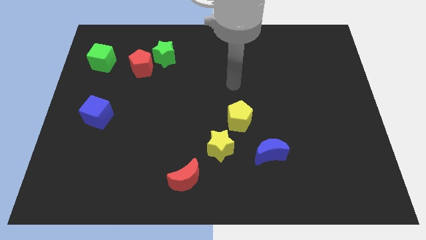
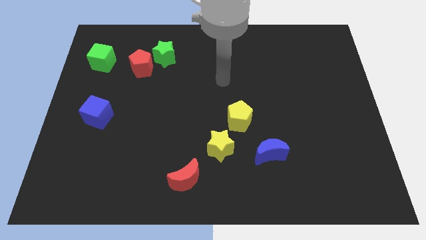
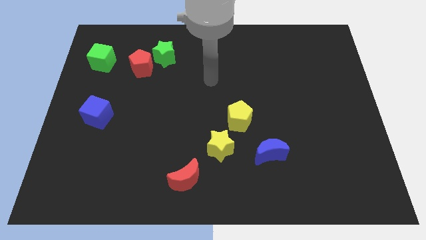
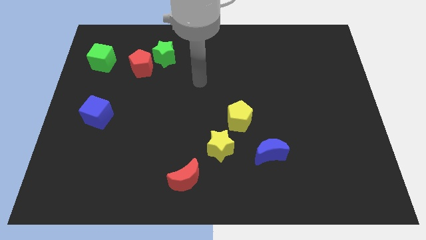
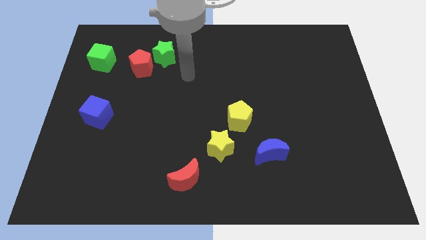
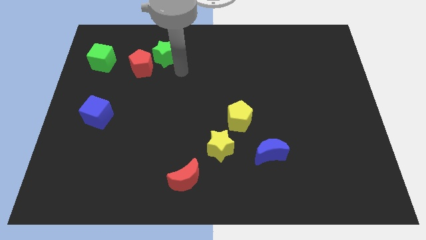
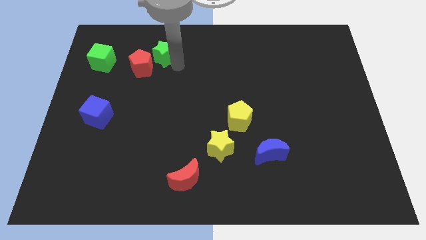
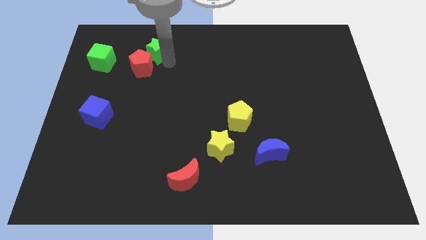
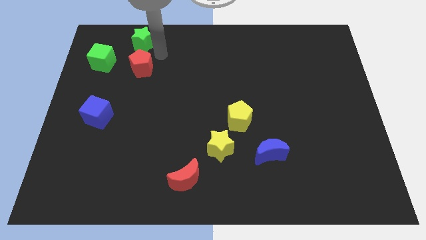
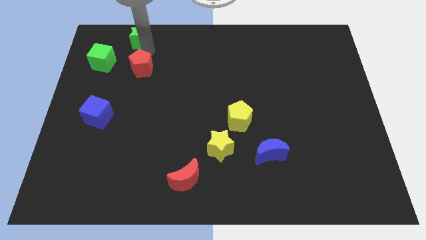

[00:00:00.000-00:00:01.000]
move the red pentagon away from the green star

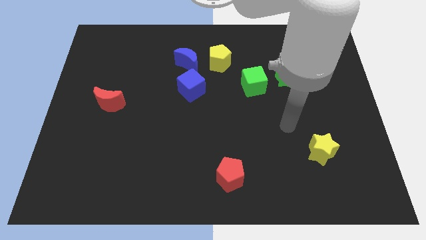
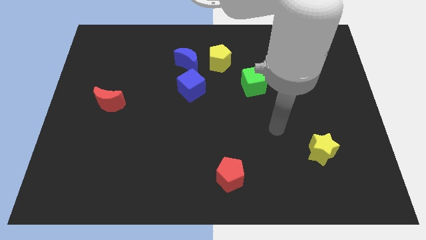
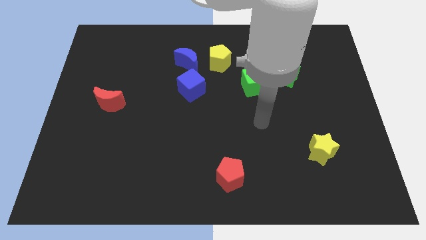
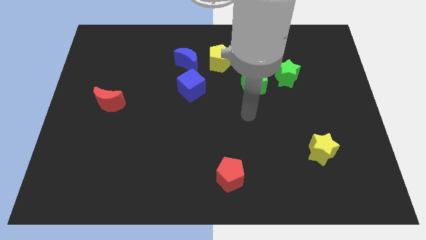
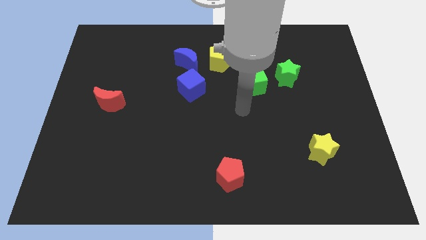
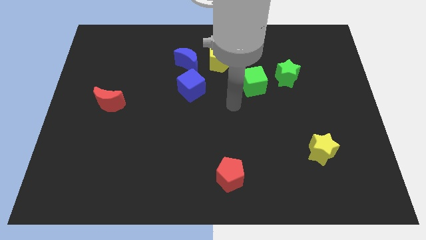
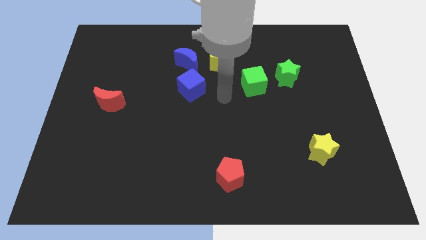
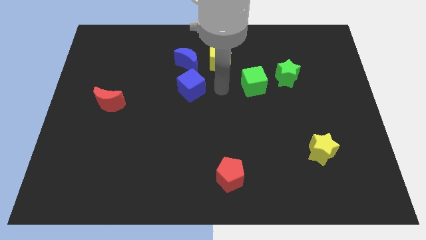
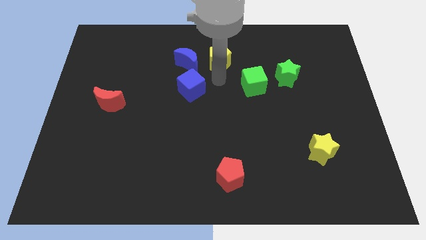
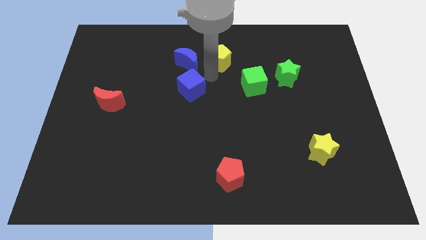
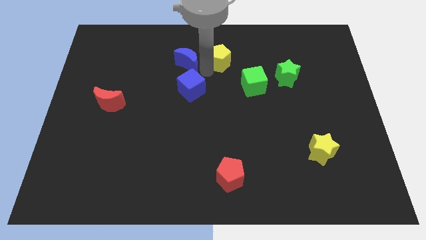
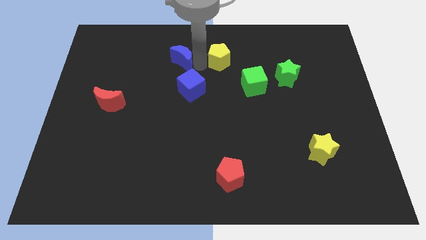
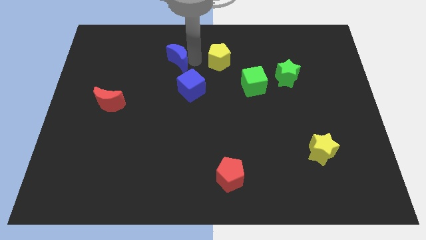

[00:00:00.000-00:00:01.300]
pull the yellow pentagon apart from the blue moon

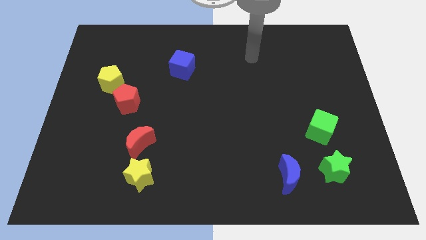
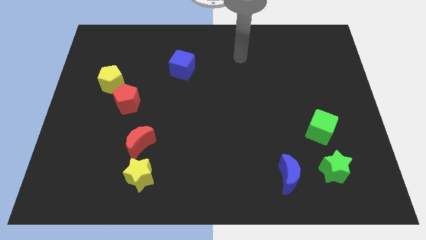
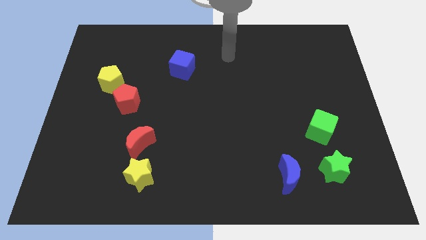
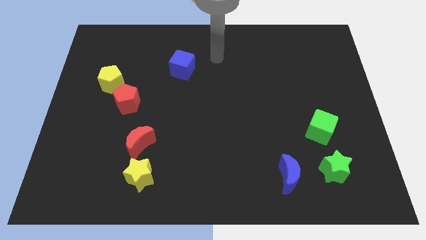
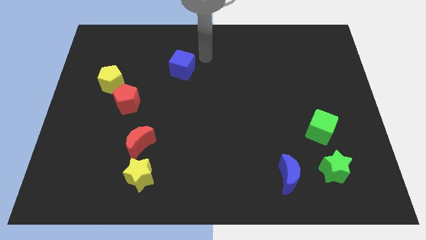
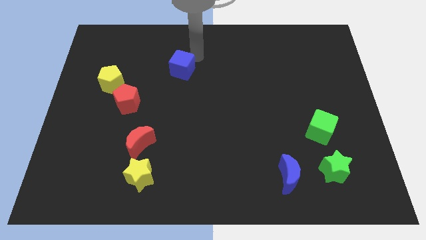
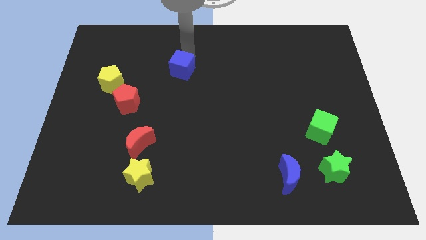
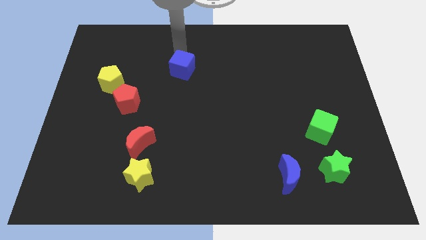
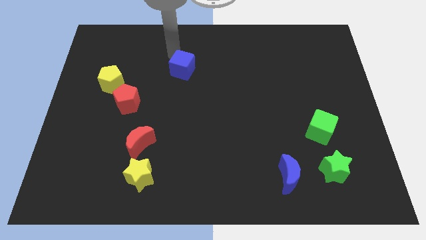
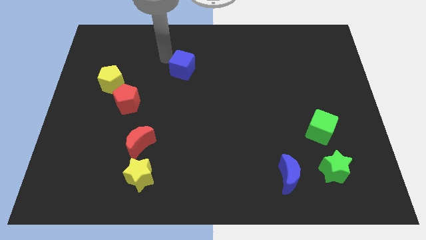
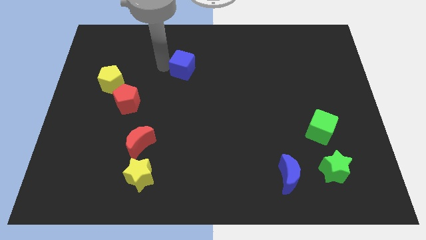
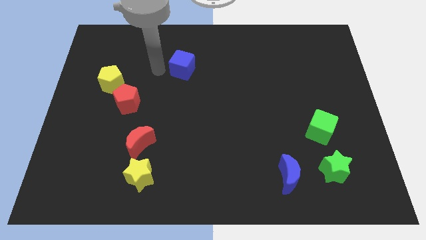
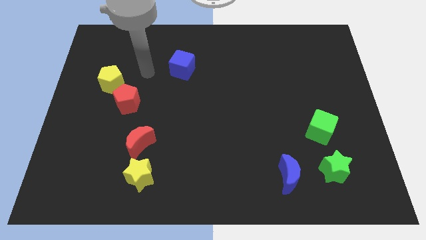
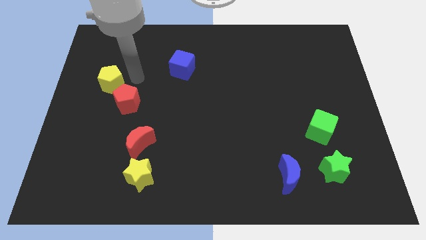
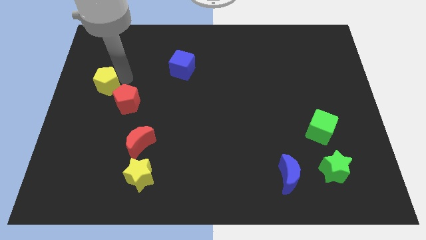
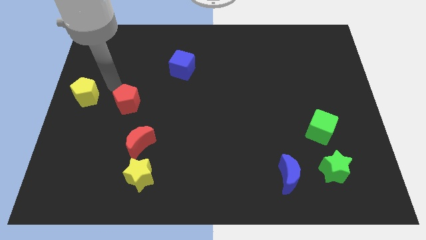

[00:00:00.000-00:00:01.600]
separate the red pentagon from the yellow pentagon

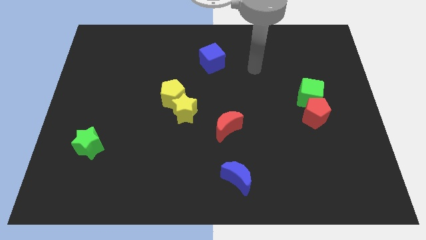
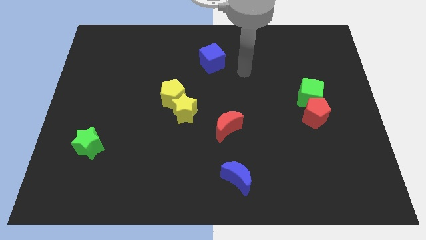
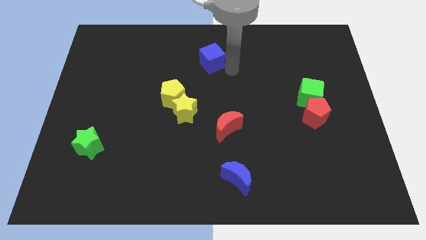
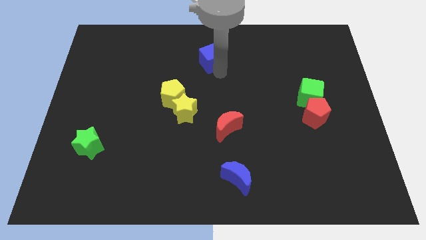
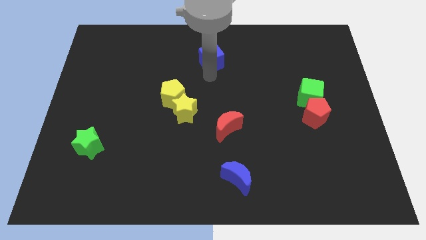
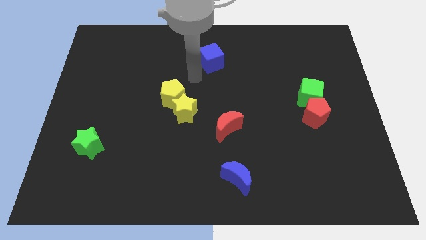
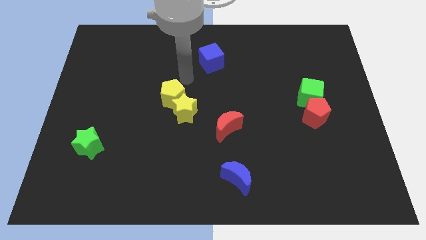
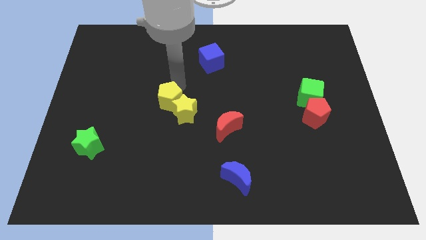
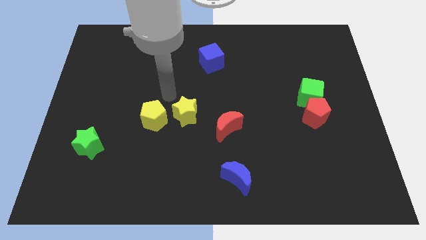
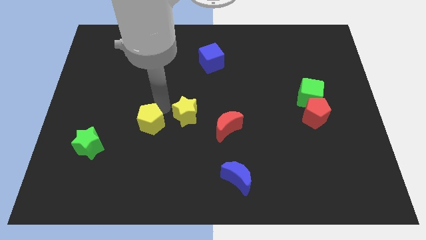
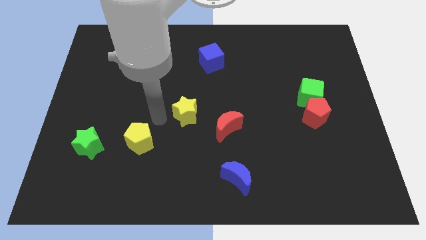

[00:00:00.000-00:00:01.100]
pull the yellow star apart from the yellow pentagon

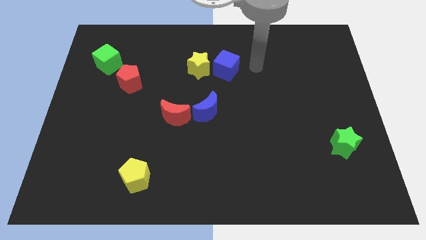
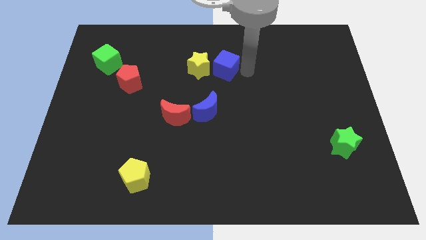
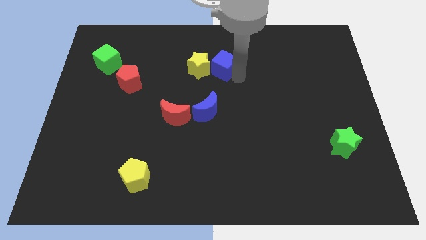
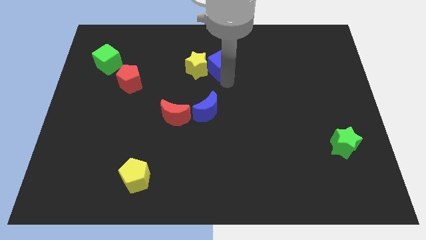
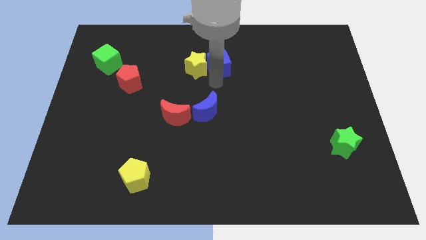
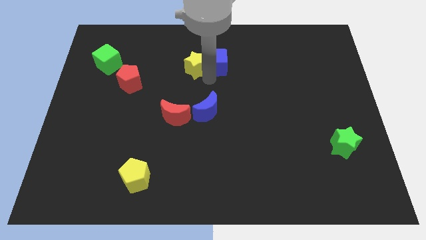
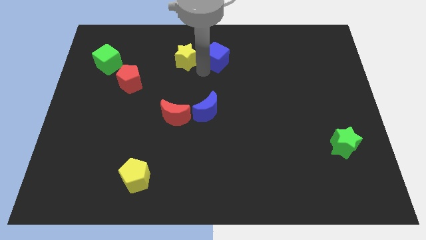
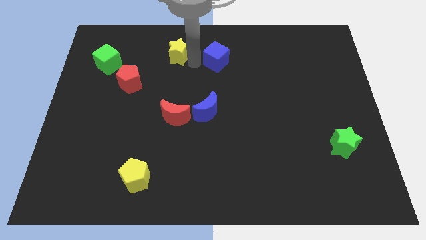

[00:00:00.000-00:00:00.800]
pull the blue cube apart from the yellow star

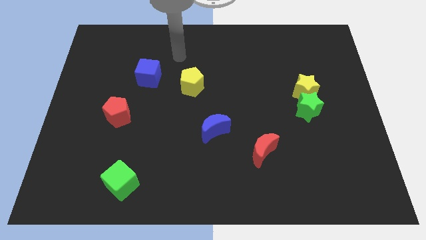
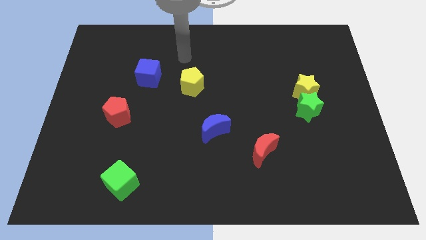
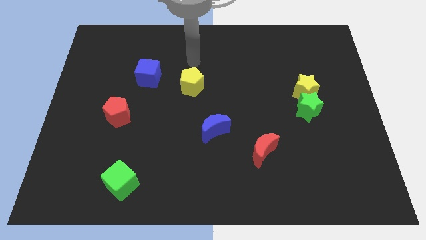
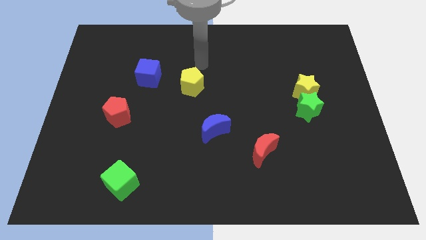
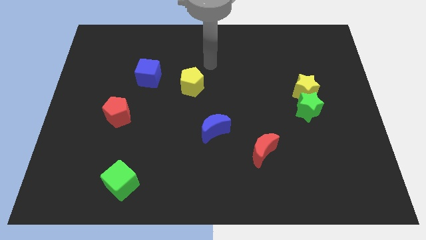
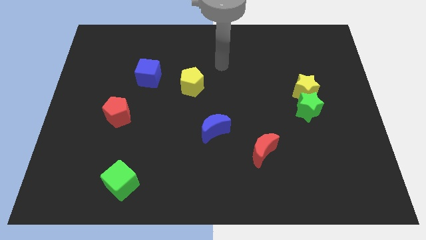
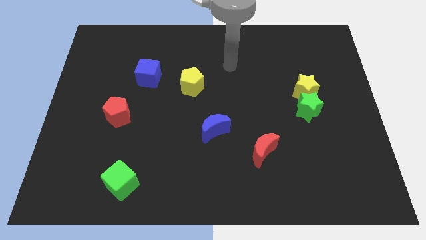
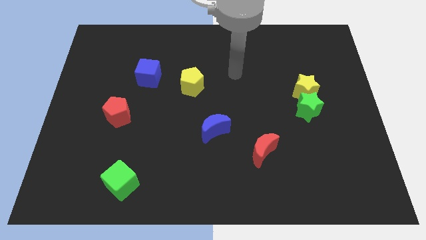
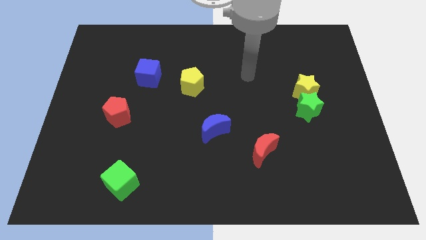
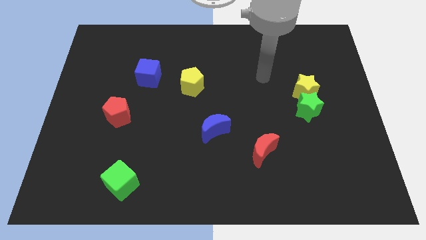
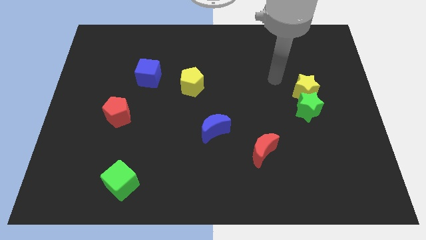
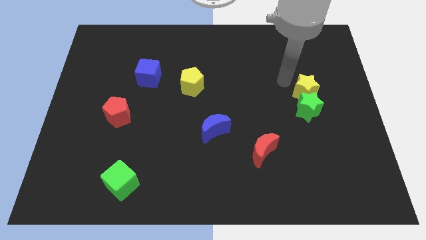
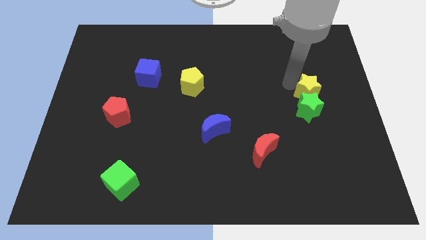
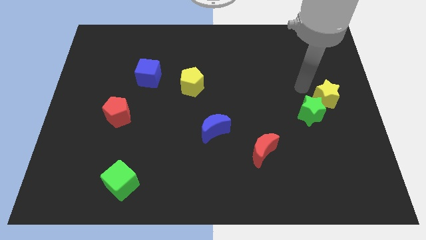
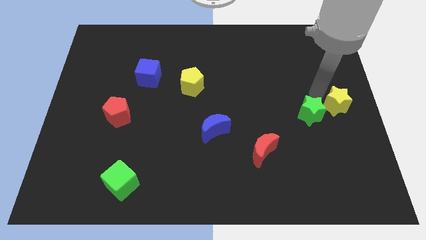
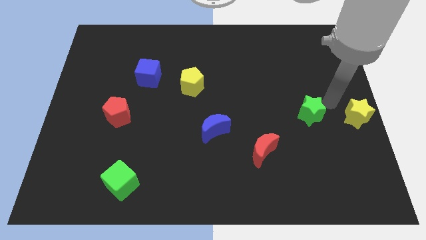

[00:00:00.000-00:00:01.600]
separate the green star from the yellow star

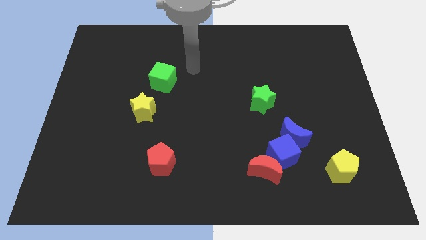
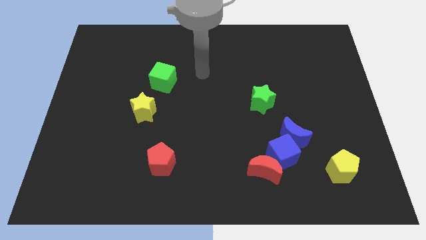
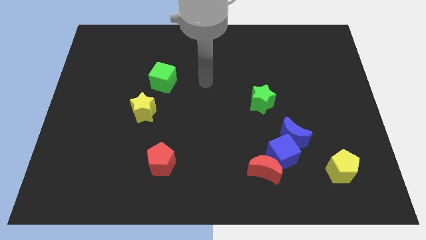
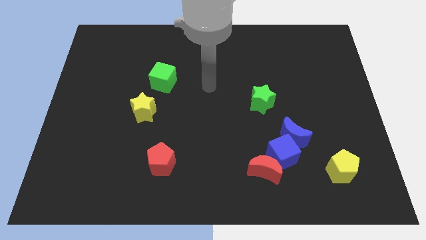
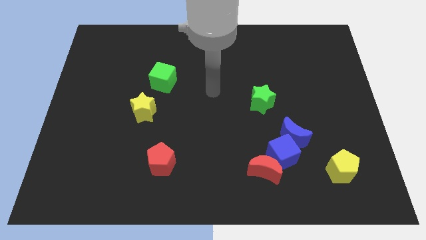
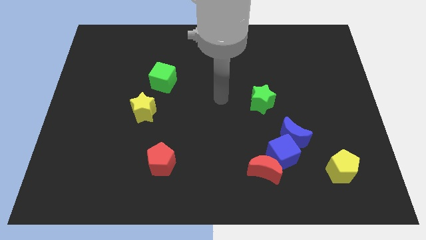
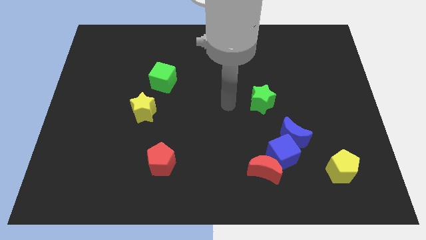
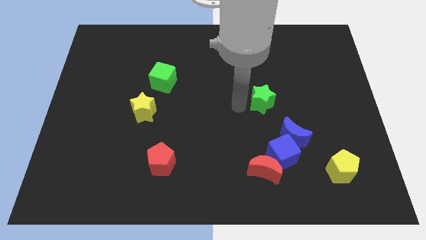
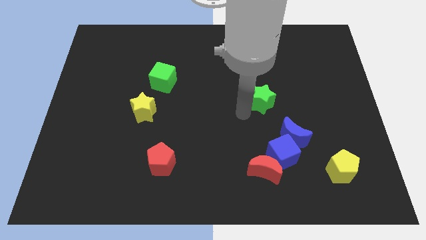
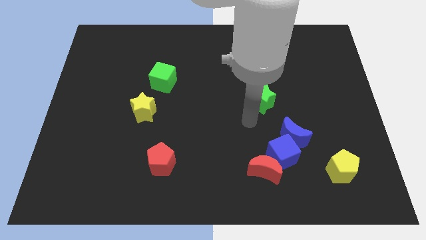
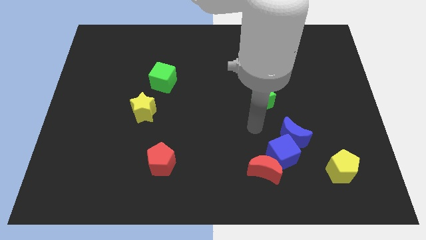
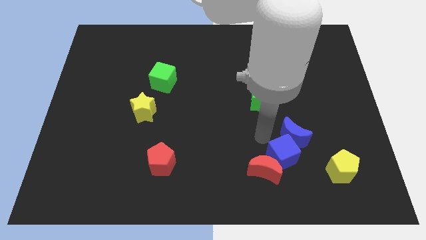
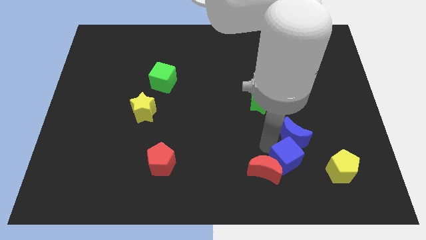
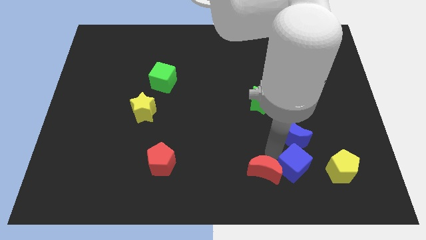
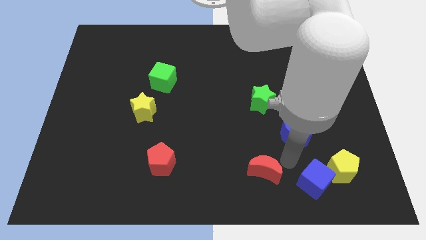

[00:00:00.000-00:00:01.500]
move the blue moon away from the blue cube

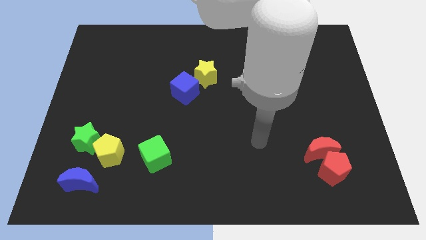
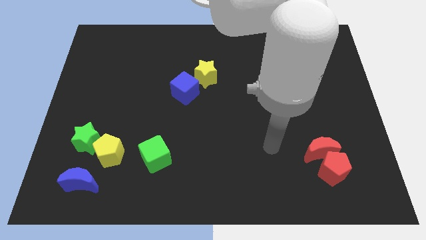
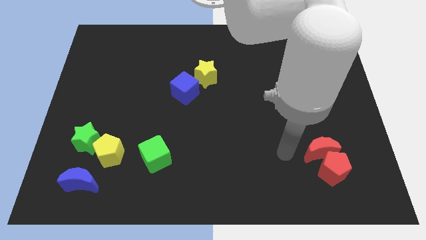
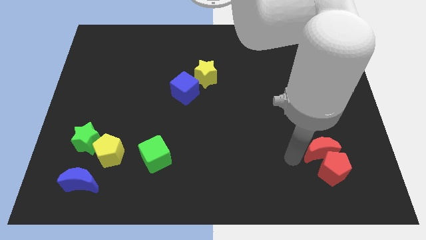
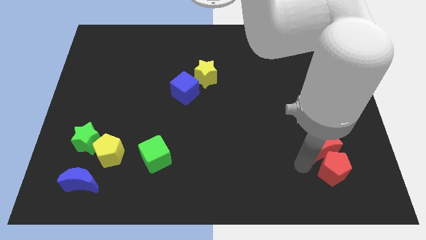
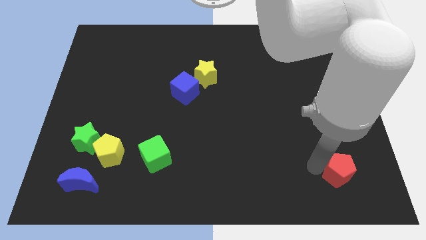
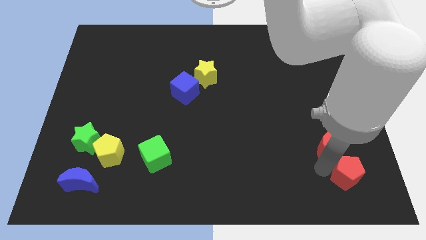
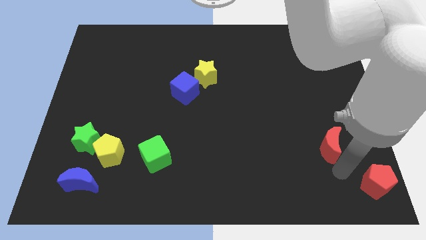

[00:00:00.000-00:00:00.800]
move the red moon away from the red pentagon
